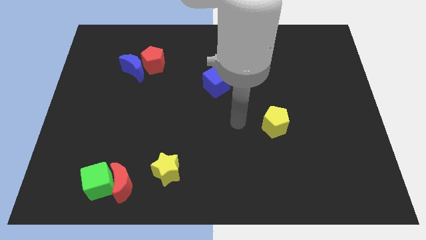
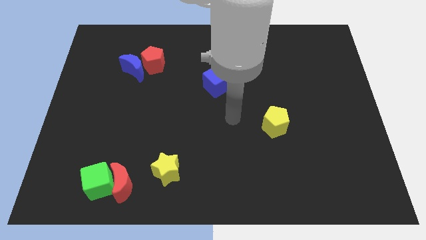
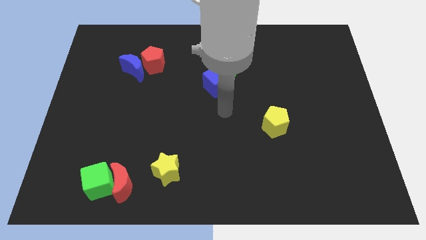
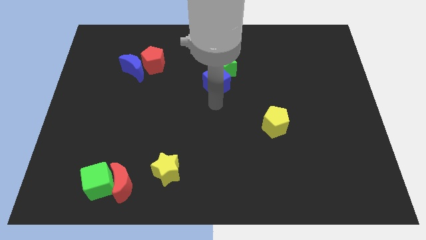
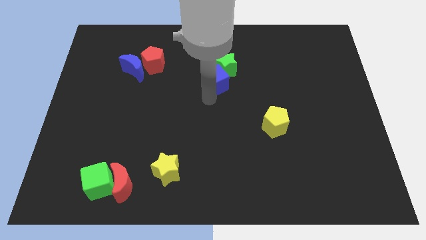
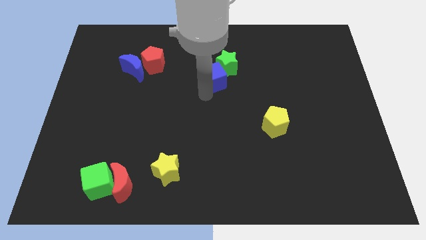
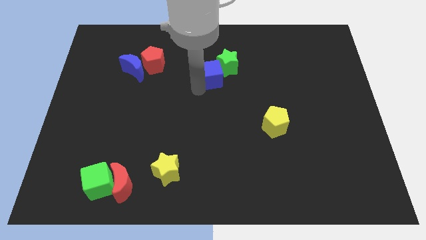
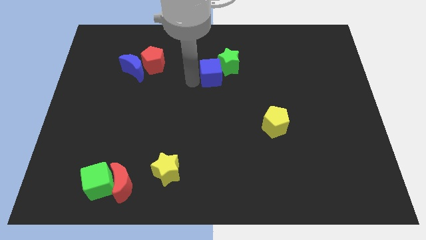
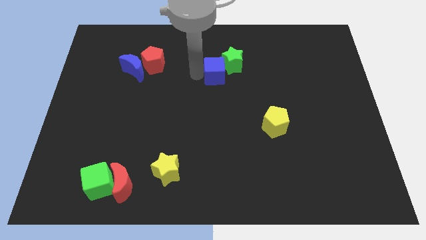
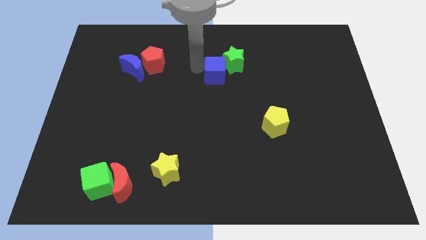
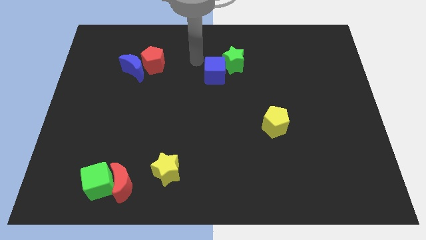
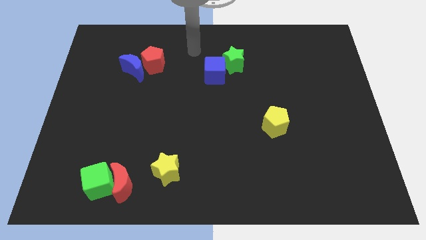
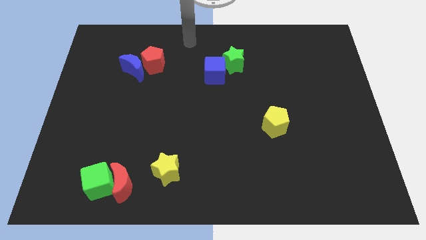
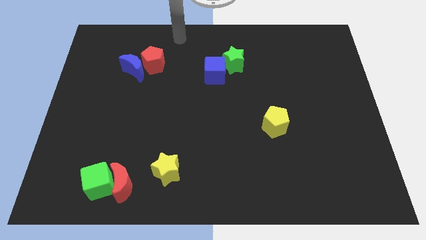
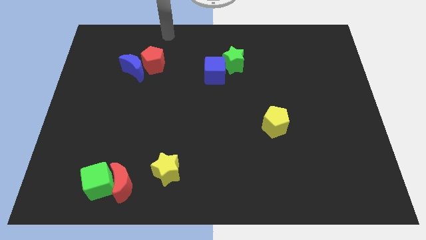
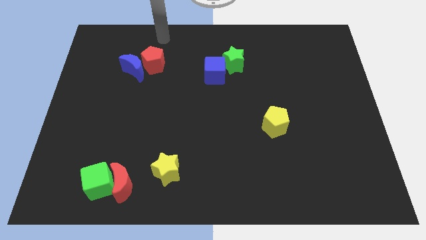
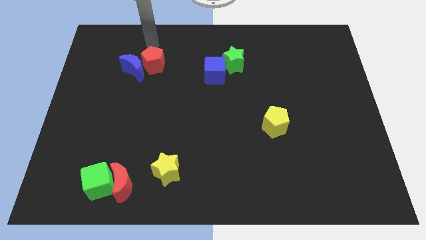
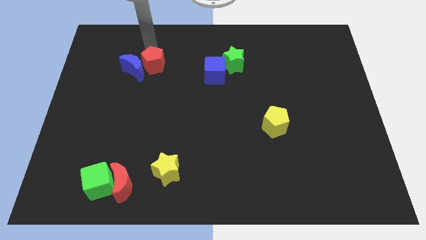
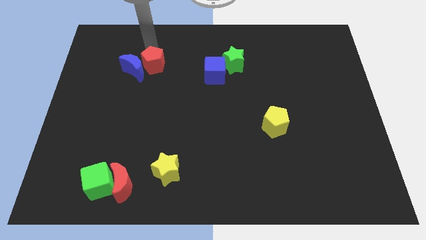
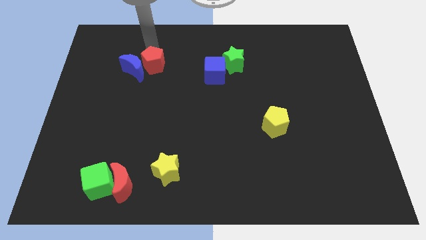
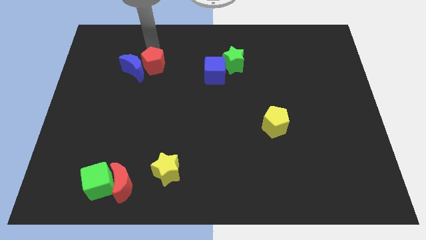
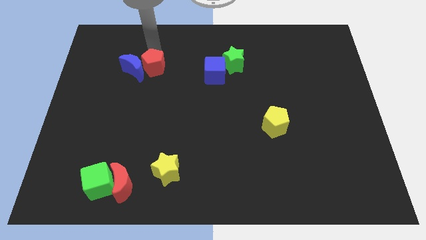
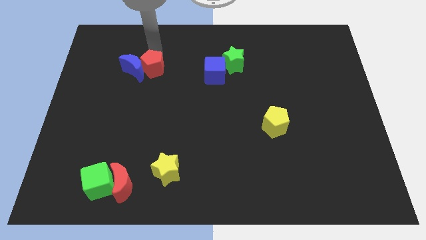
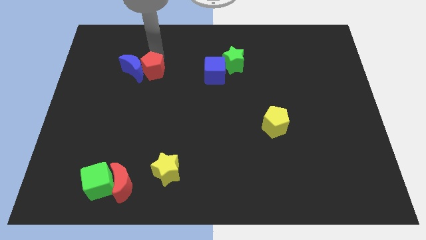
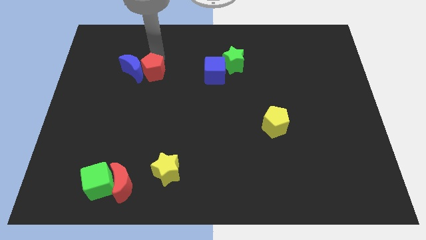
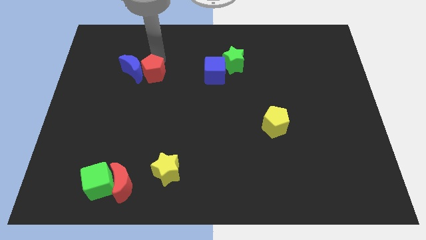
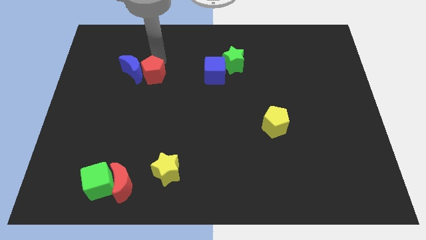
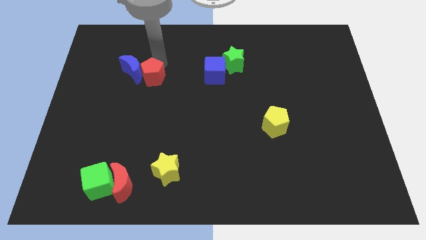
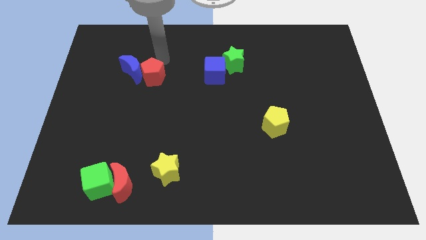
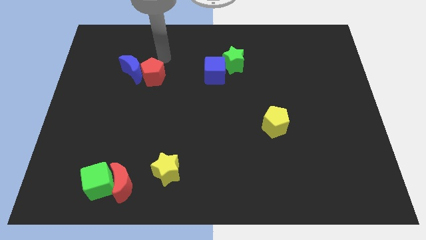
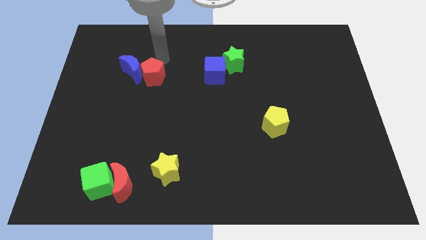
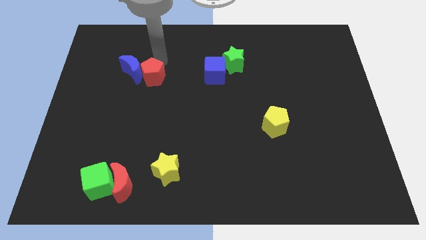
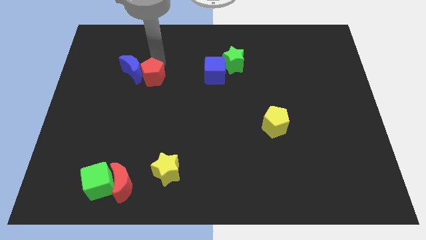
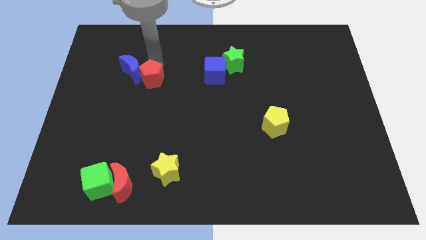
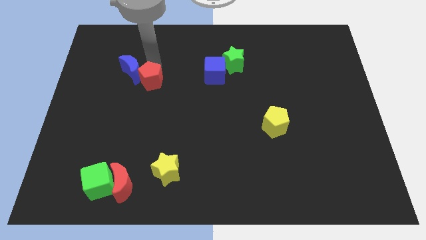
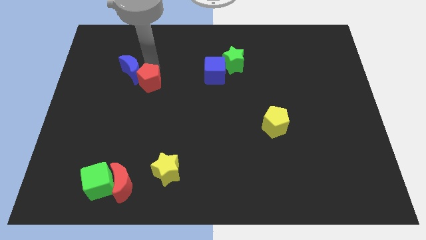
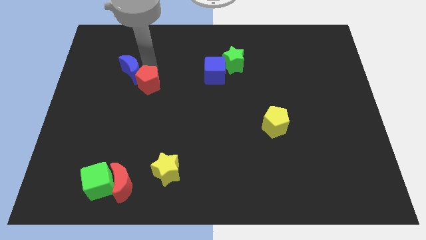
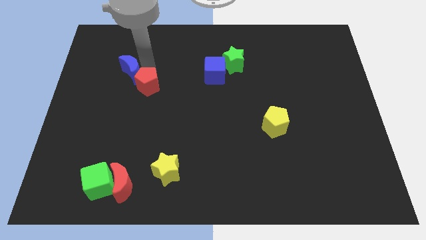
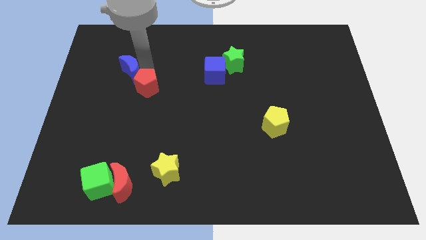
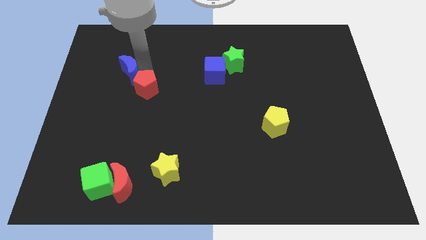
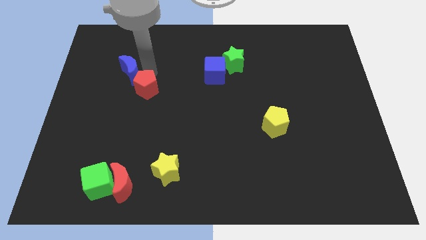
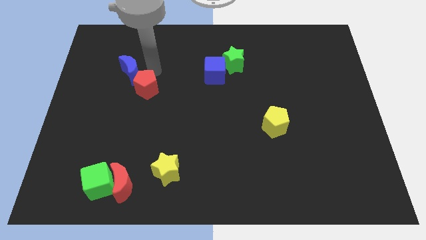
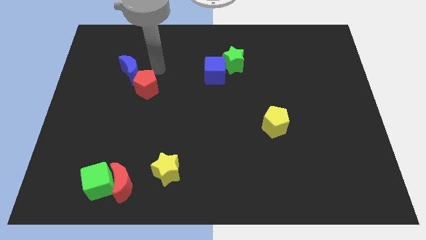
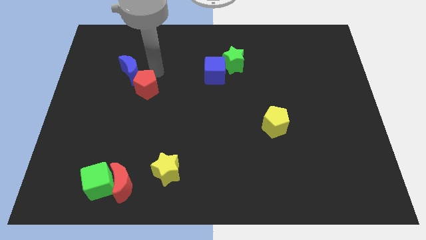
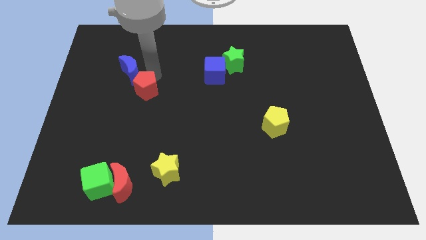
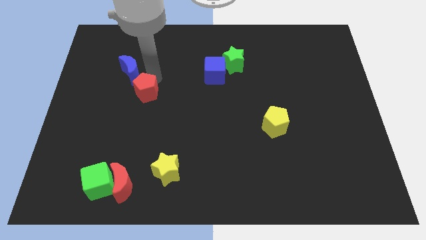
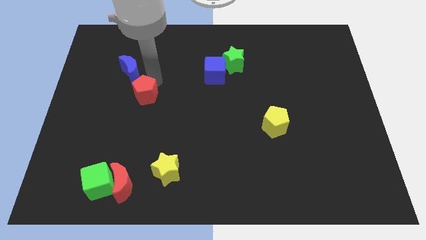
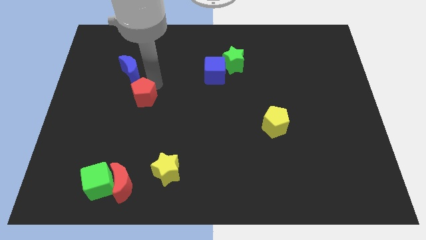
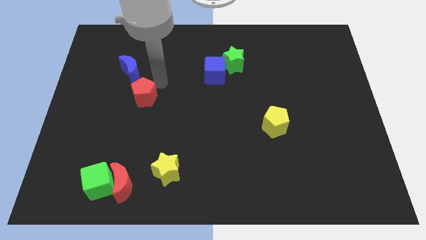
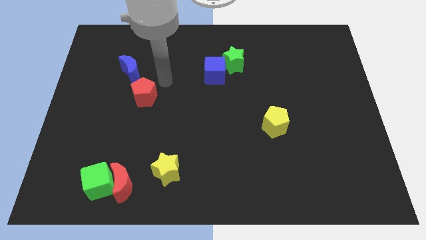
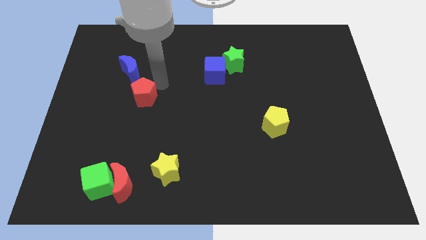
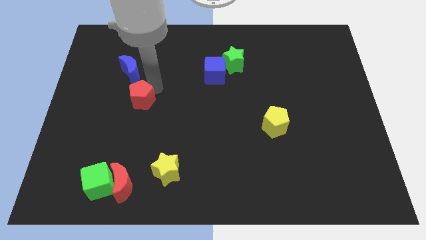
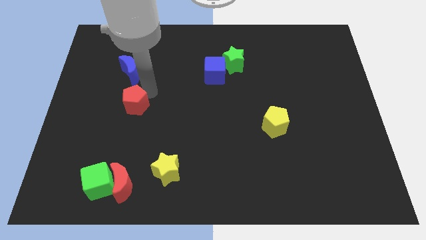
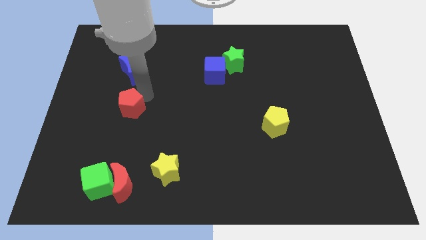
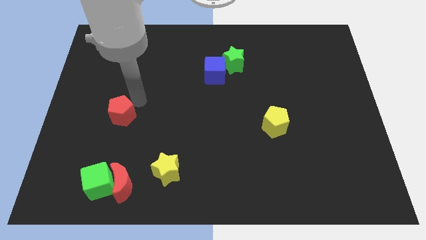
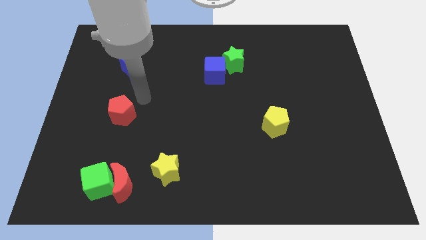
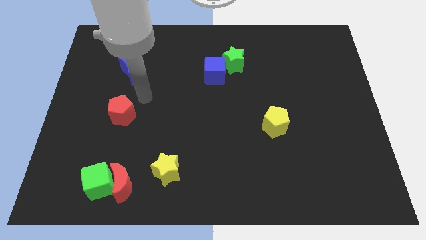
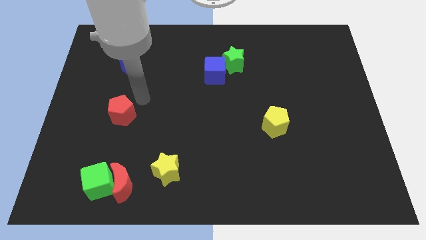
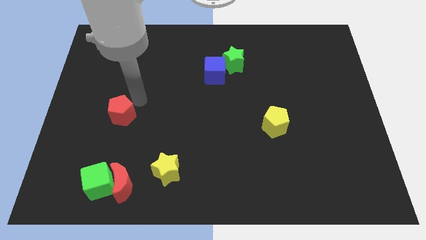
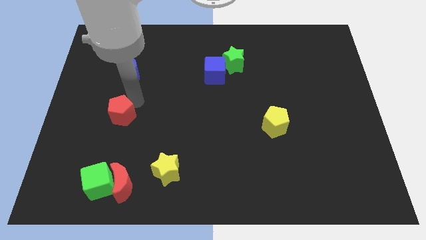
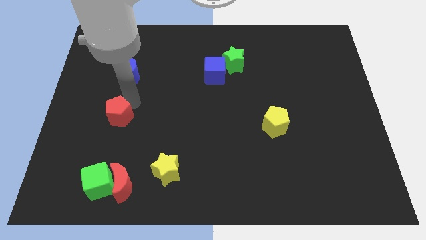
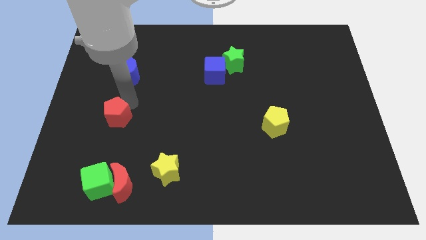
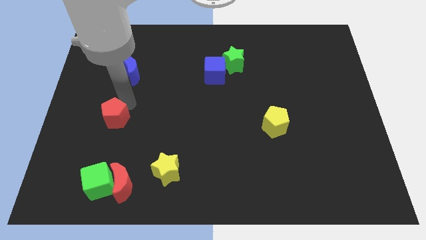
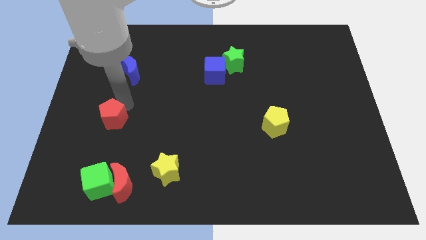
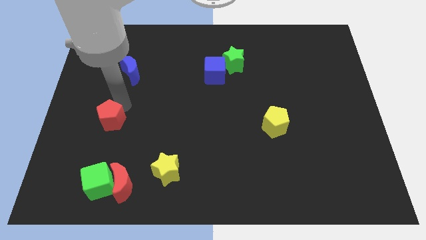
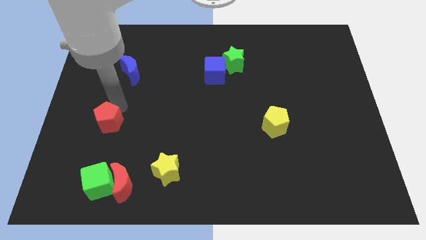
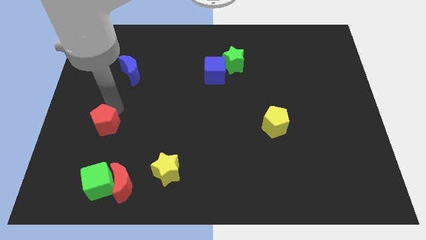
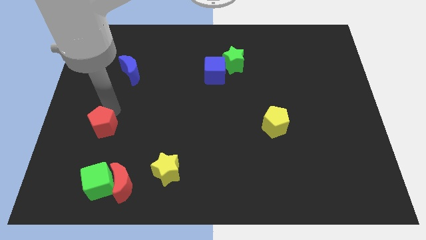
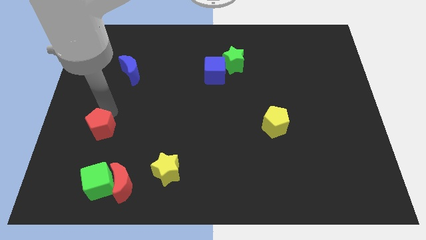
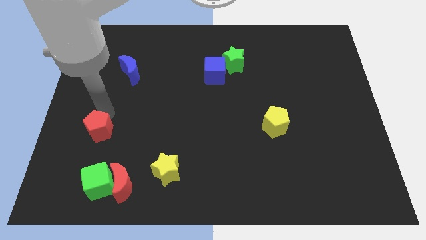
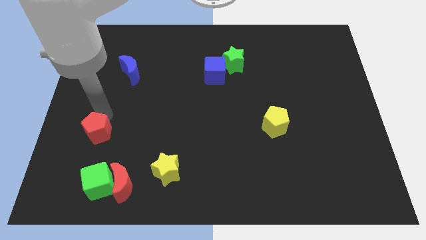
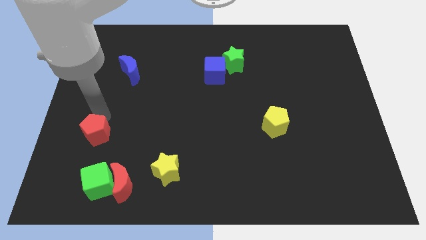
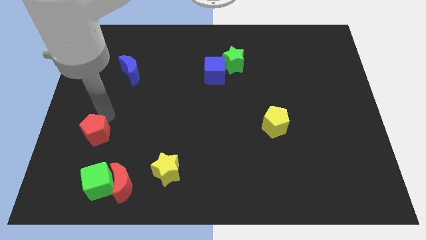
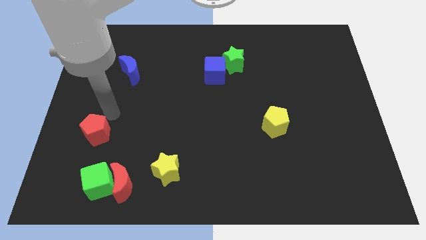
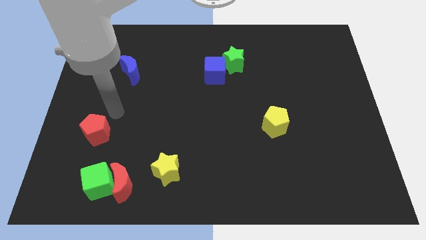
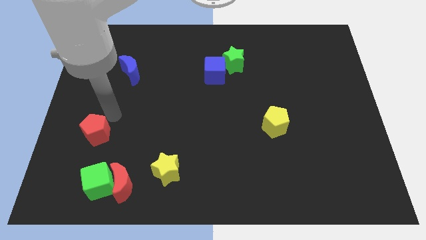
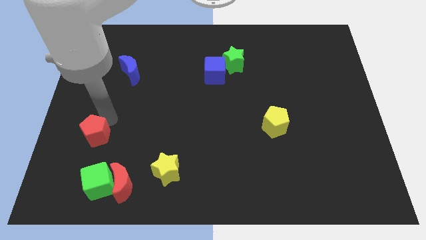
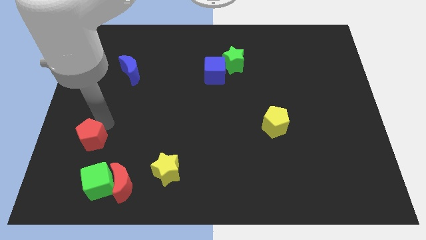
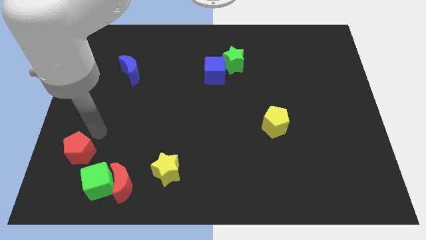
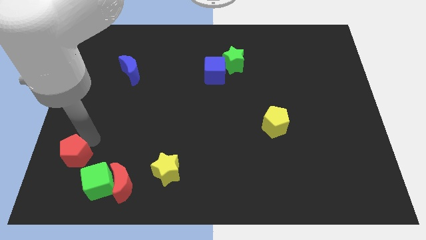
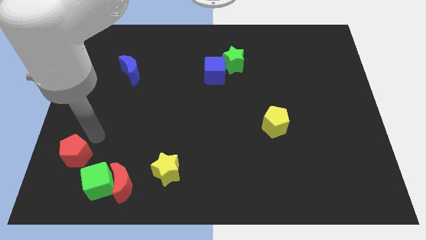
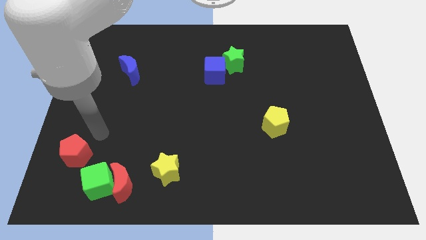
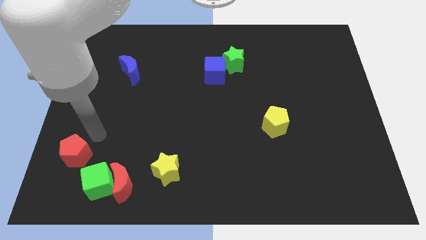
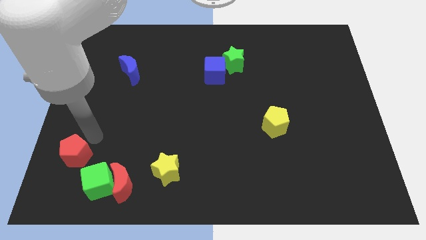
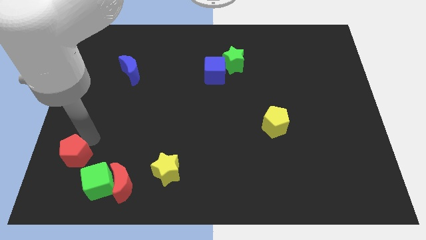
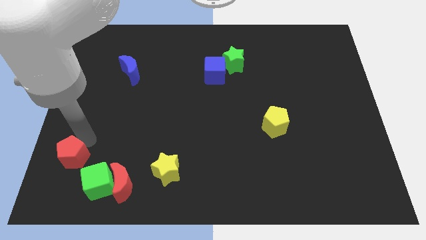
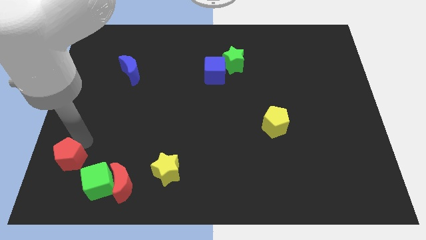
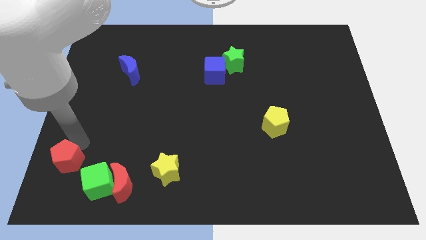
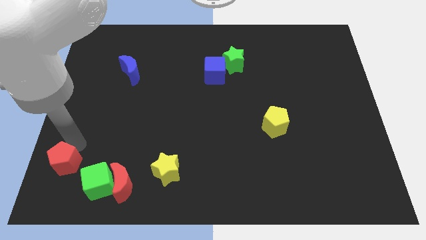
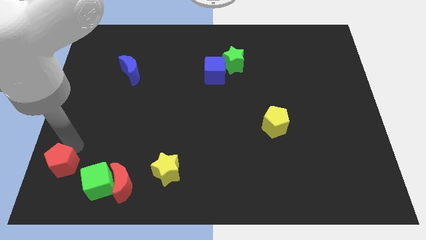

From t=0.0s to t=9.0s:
move the red pentagon to the bottom left of the board
